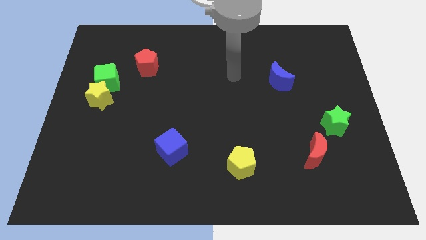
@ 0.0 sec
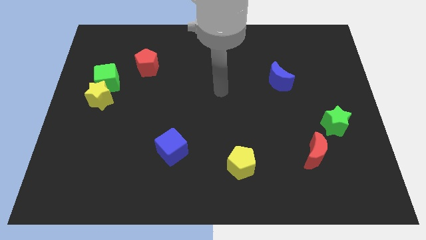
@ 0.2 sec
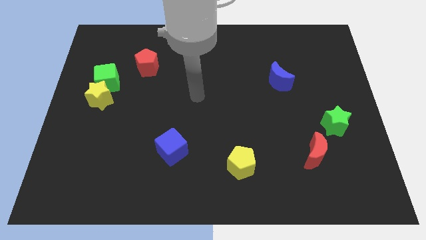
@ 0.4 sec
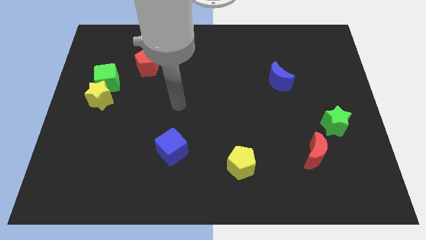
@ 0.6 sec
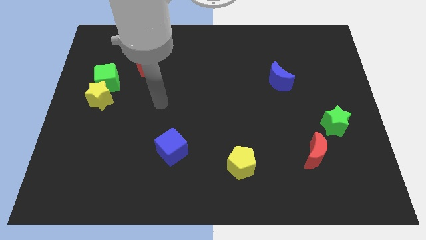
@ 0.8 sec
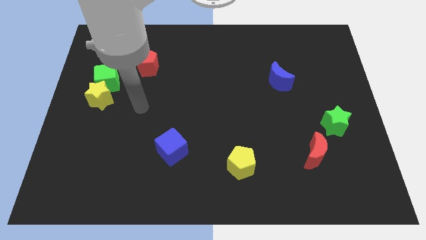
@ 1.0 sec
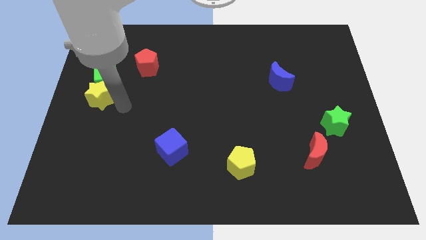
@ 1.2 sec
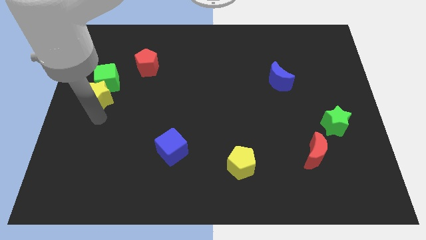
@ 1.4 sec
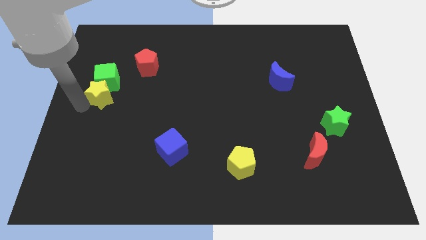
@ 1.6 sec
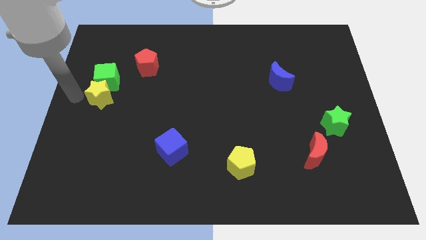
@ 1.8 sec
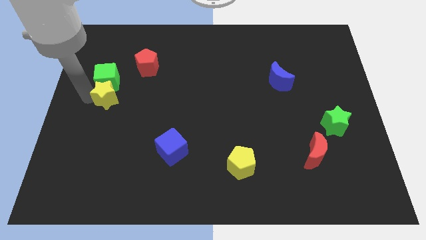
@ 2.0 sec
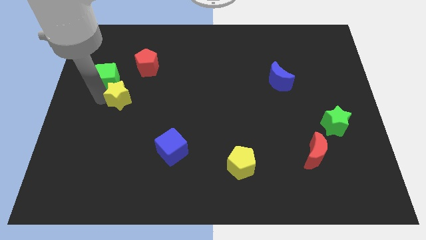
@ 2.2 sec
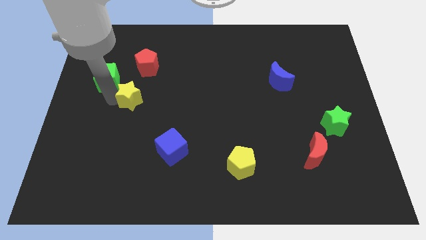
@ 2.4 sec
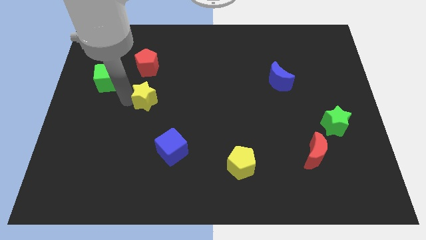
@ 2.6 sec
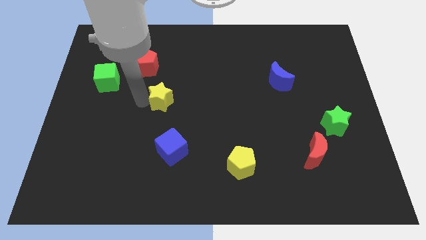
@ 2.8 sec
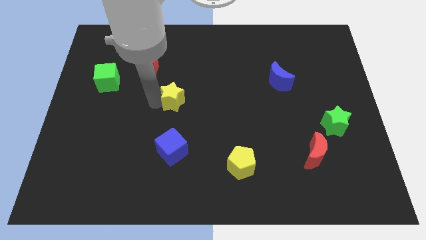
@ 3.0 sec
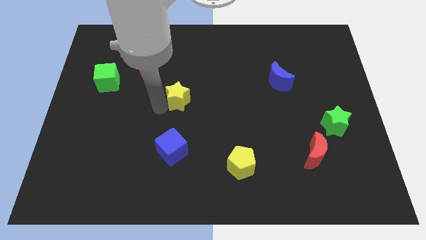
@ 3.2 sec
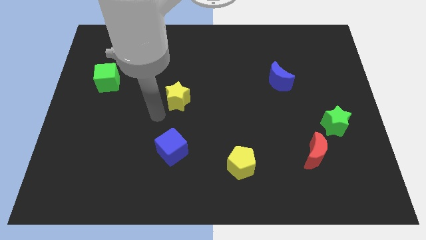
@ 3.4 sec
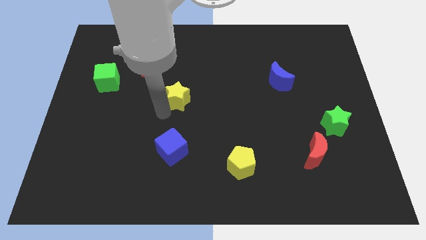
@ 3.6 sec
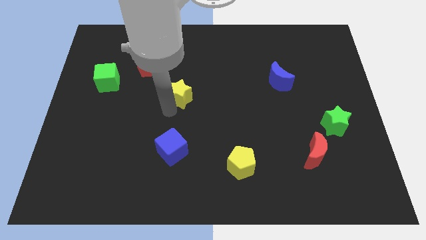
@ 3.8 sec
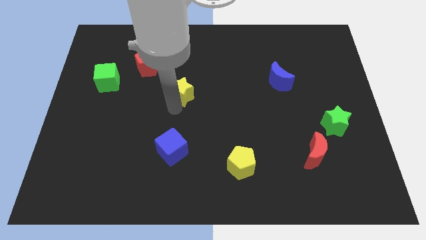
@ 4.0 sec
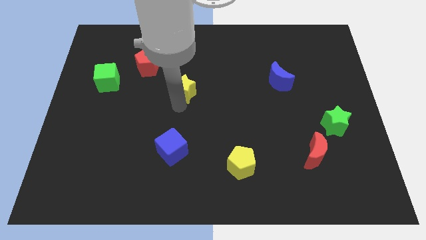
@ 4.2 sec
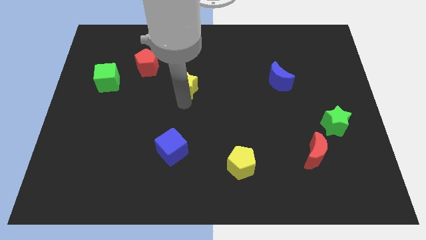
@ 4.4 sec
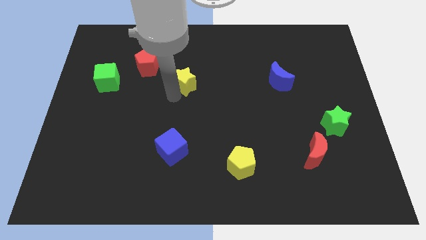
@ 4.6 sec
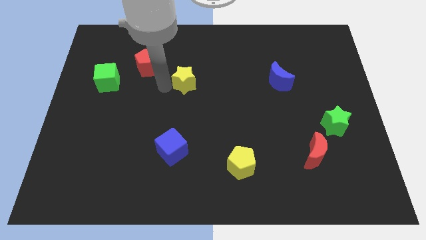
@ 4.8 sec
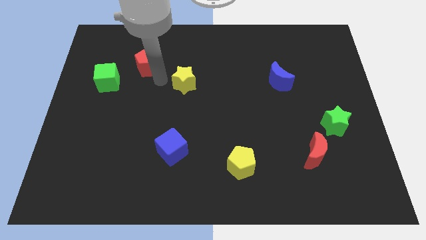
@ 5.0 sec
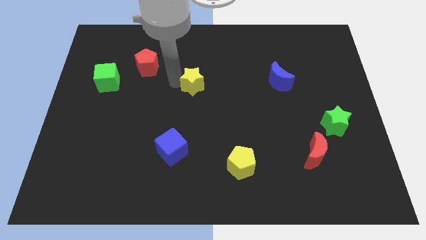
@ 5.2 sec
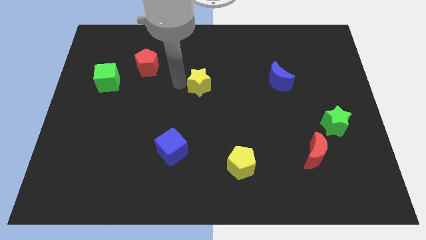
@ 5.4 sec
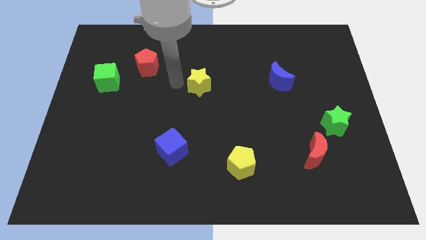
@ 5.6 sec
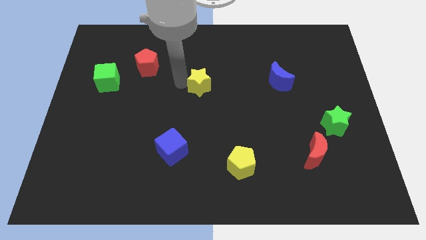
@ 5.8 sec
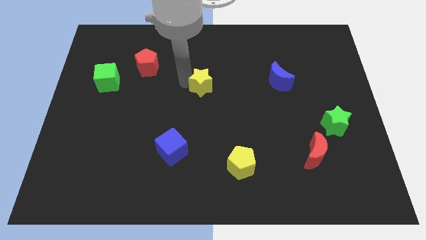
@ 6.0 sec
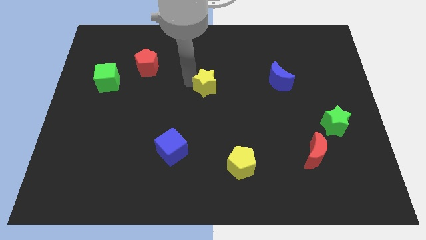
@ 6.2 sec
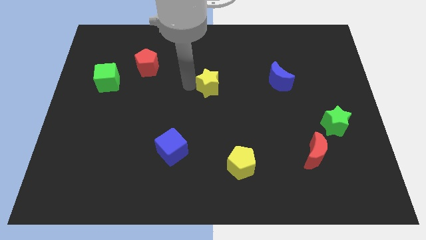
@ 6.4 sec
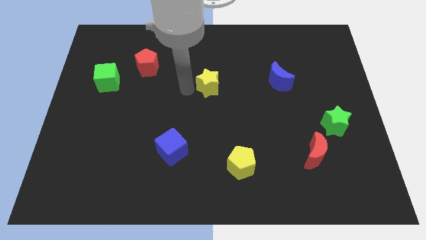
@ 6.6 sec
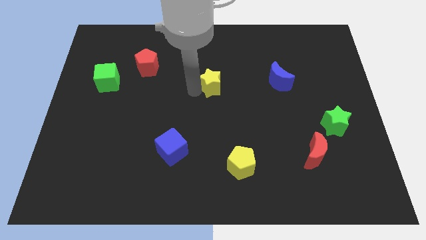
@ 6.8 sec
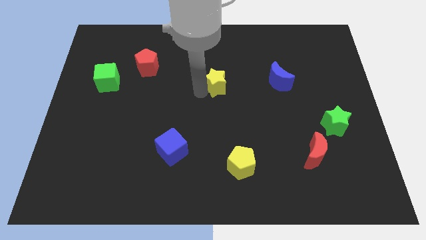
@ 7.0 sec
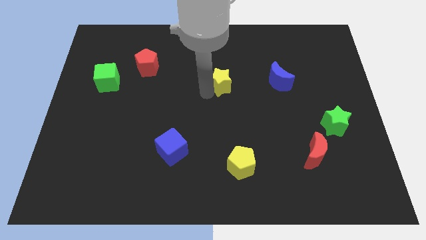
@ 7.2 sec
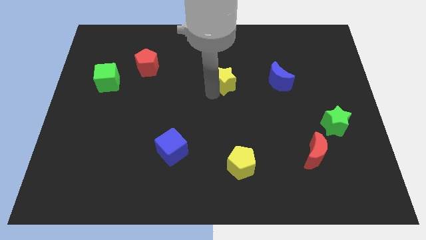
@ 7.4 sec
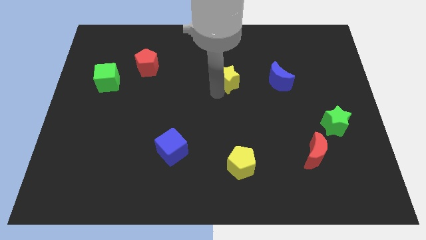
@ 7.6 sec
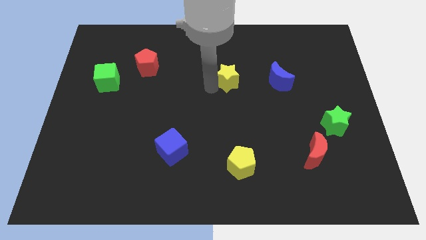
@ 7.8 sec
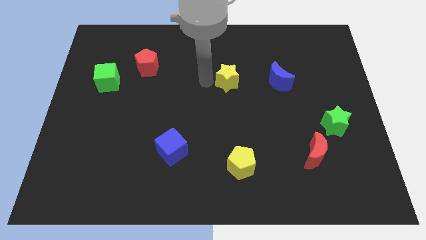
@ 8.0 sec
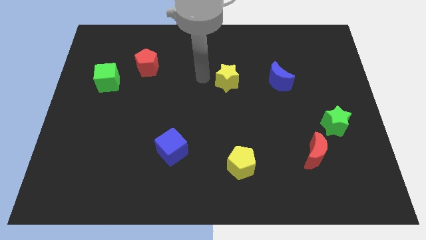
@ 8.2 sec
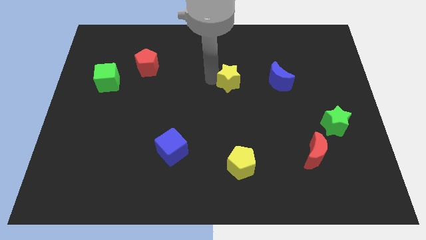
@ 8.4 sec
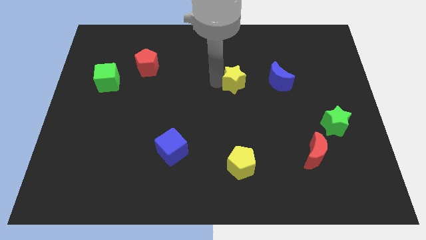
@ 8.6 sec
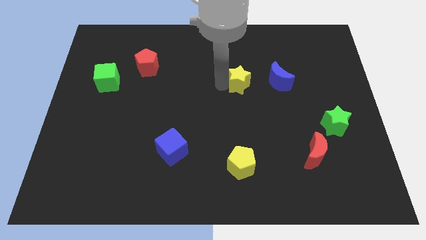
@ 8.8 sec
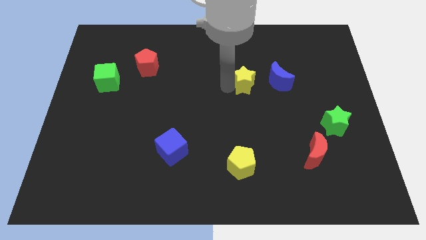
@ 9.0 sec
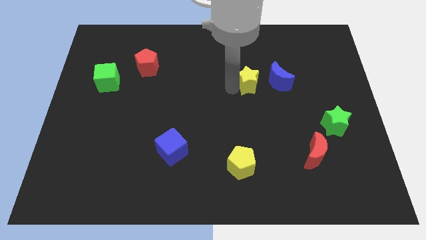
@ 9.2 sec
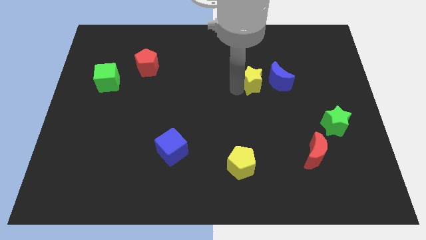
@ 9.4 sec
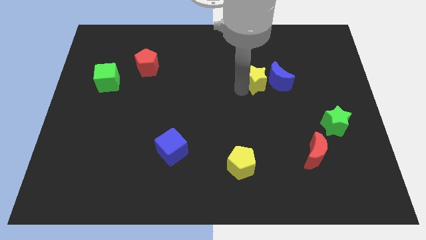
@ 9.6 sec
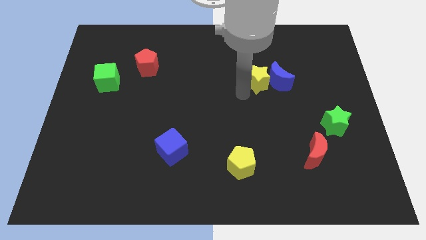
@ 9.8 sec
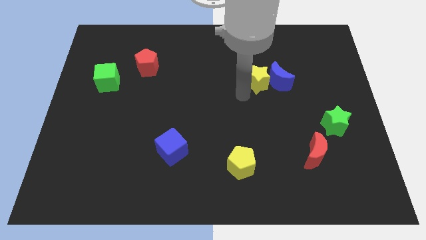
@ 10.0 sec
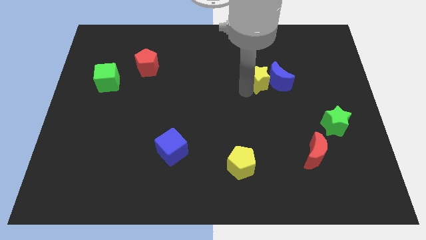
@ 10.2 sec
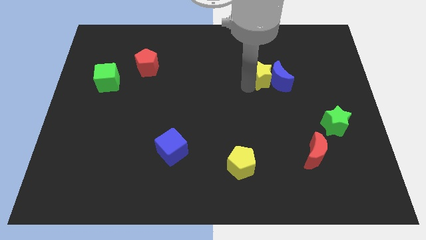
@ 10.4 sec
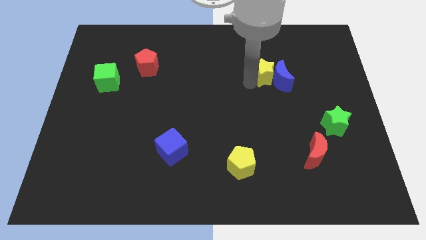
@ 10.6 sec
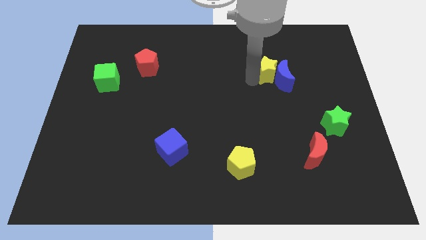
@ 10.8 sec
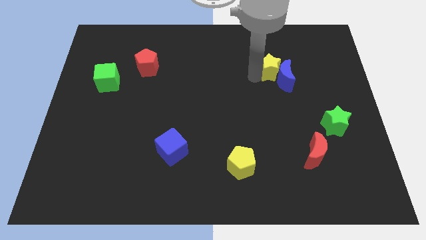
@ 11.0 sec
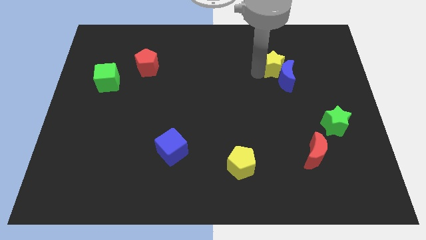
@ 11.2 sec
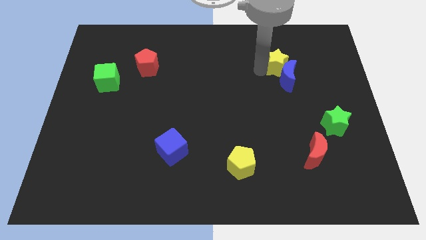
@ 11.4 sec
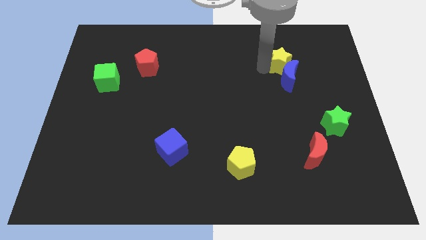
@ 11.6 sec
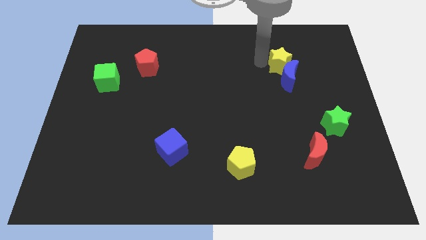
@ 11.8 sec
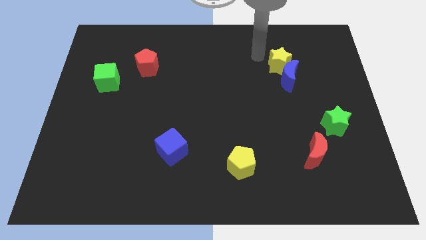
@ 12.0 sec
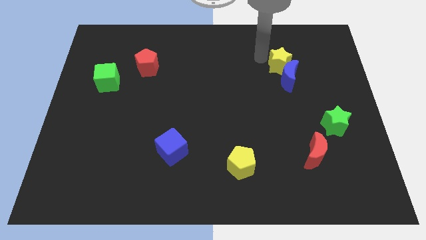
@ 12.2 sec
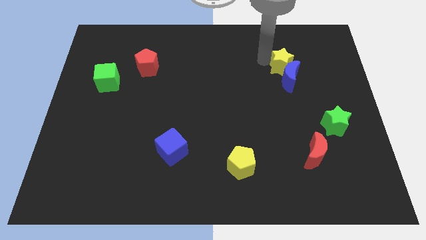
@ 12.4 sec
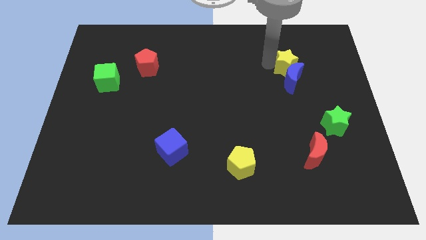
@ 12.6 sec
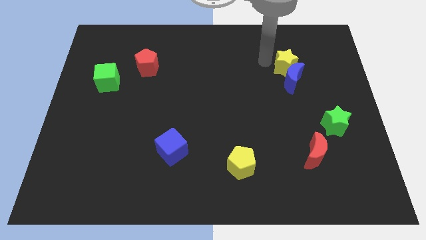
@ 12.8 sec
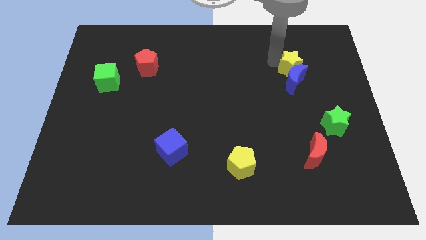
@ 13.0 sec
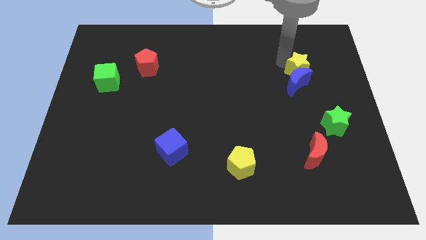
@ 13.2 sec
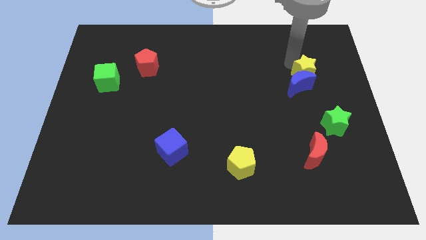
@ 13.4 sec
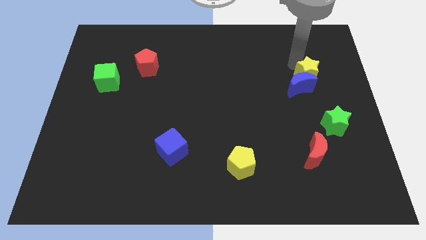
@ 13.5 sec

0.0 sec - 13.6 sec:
slide the yellow star just right of the blue moon
